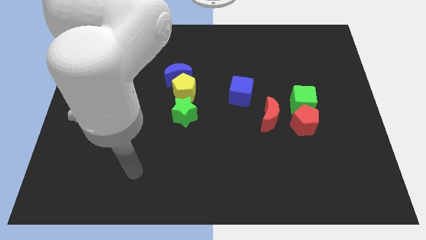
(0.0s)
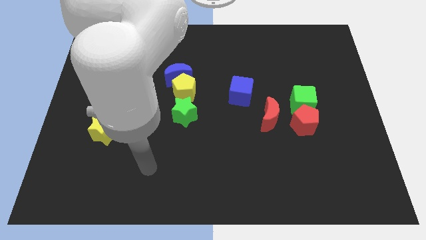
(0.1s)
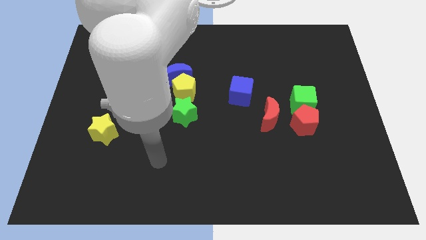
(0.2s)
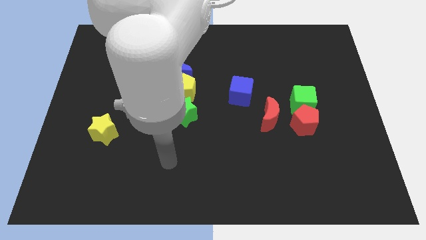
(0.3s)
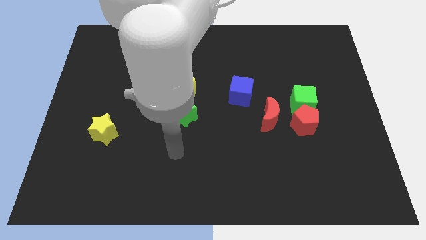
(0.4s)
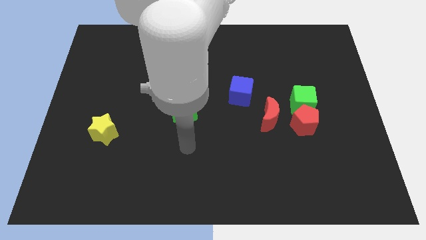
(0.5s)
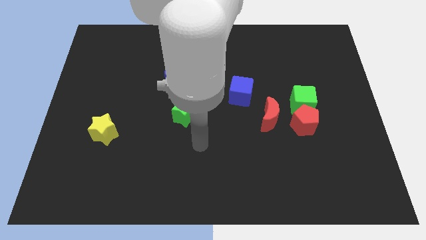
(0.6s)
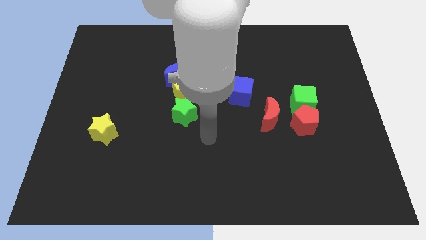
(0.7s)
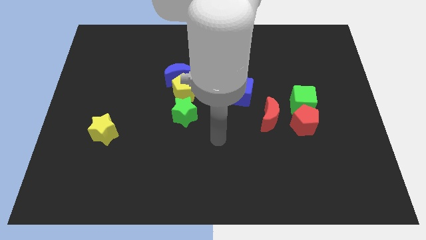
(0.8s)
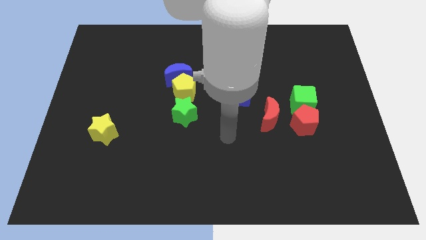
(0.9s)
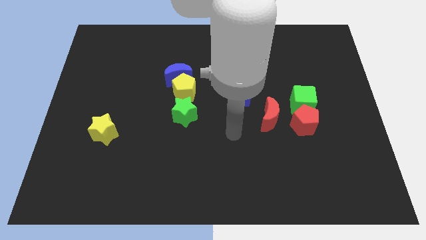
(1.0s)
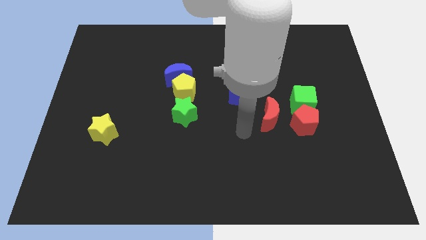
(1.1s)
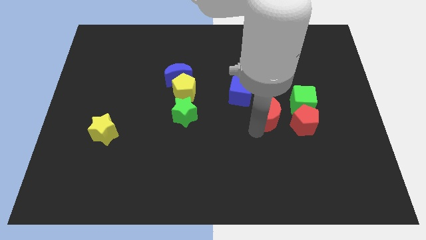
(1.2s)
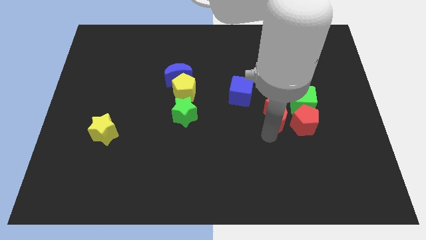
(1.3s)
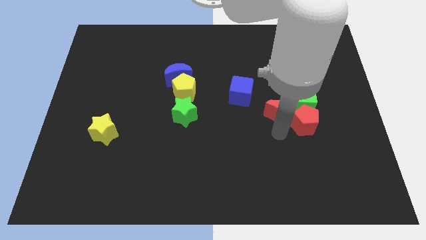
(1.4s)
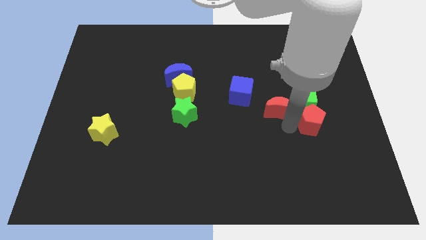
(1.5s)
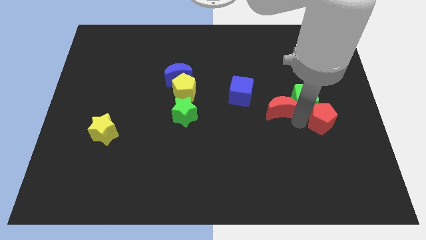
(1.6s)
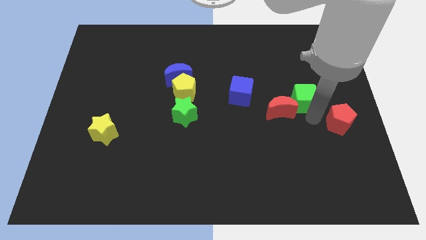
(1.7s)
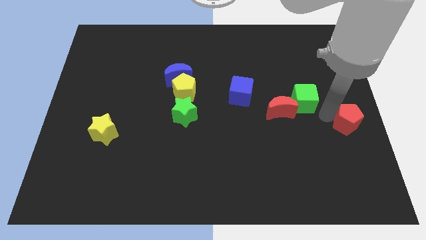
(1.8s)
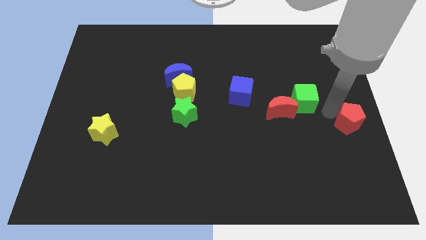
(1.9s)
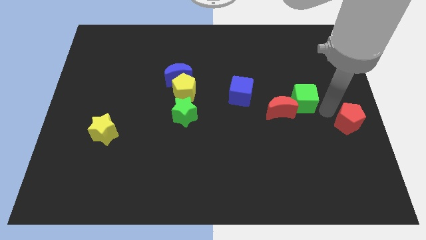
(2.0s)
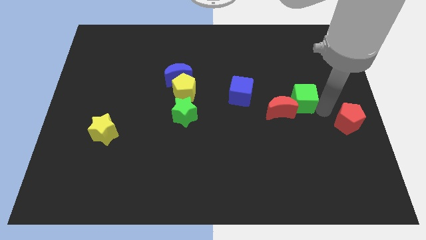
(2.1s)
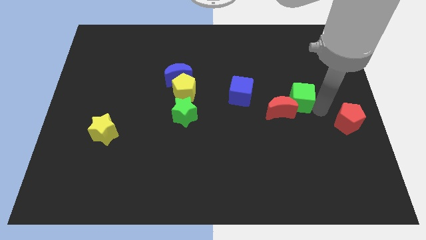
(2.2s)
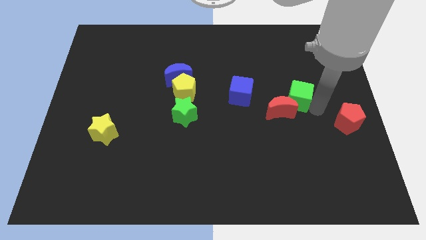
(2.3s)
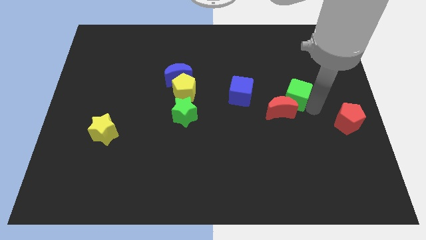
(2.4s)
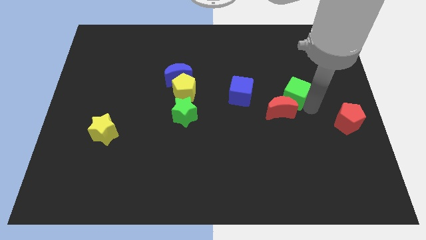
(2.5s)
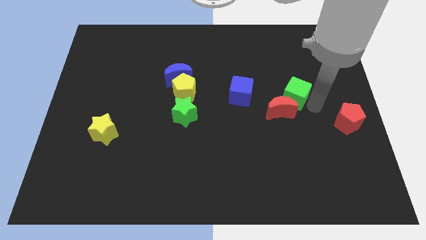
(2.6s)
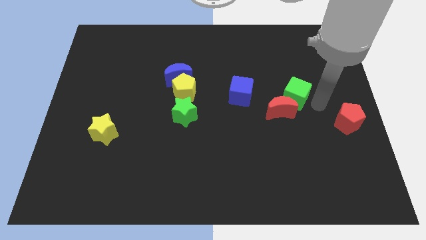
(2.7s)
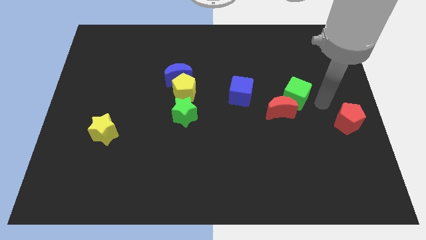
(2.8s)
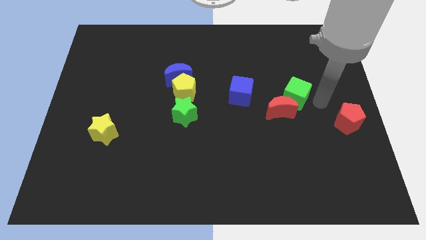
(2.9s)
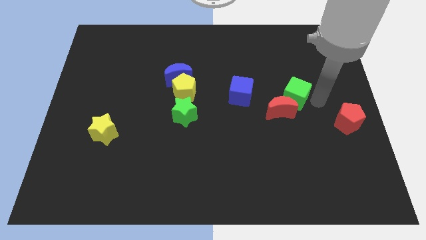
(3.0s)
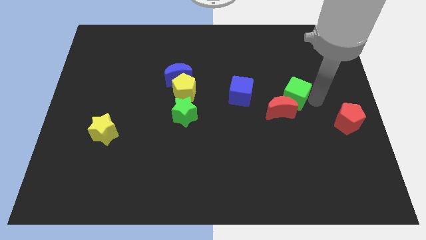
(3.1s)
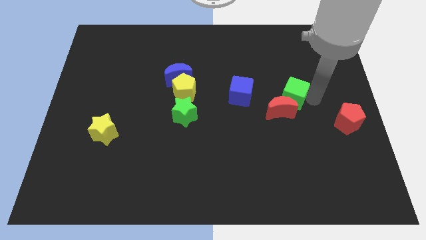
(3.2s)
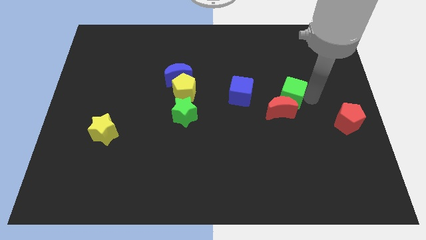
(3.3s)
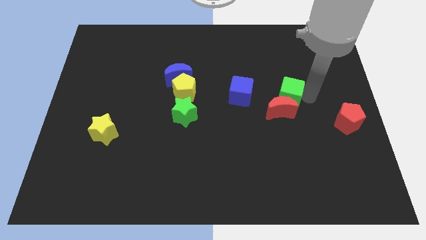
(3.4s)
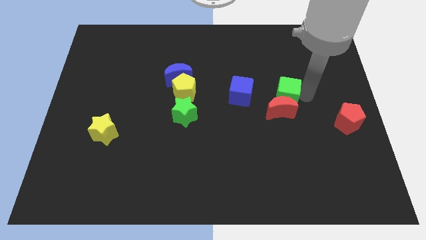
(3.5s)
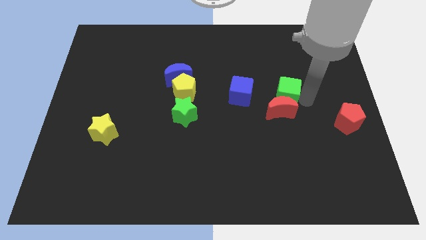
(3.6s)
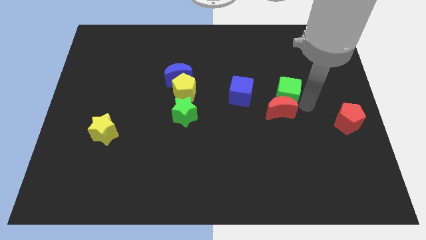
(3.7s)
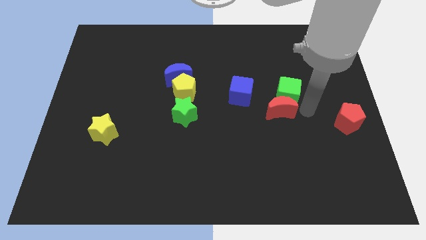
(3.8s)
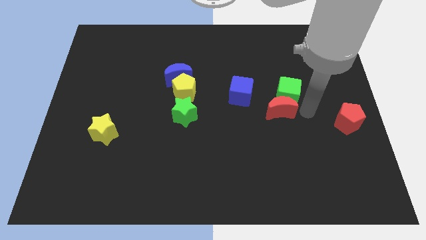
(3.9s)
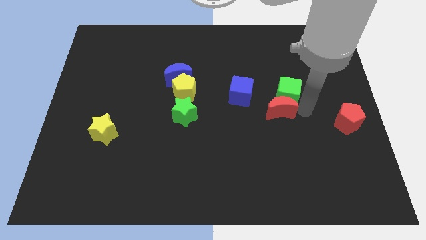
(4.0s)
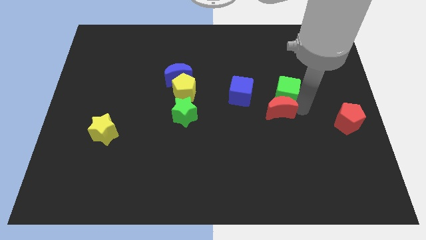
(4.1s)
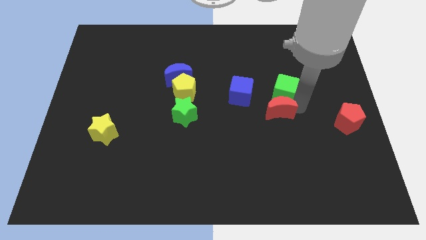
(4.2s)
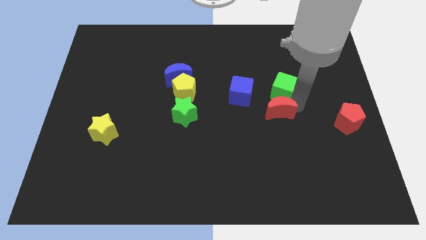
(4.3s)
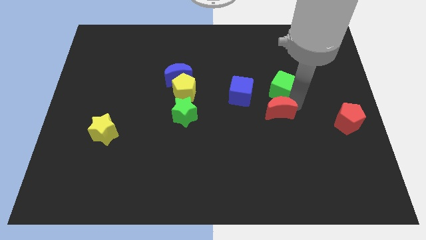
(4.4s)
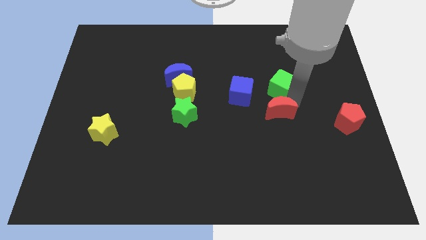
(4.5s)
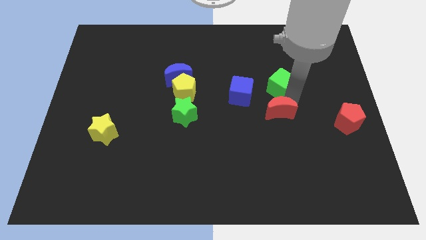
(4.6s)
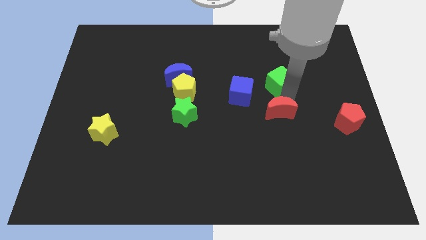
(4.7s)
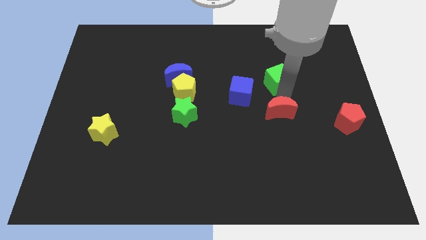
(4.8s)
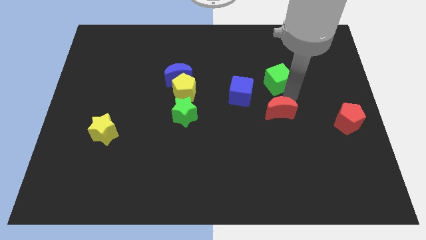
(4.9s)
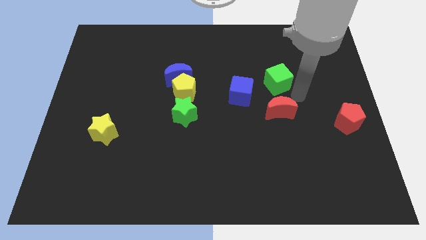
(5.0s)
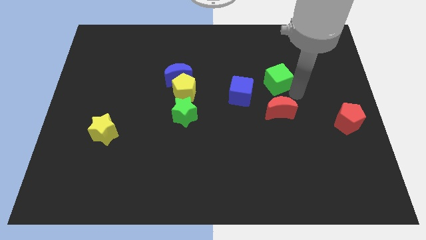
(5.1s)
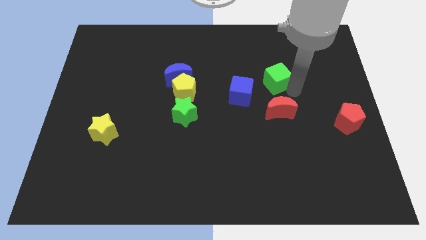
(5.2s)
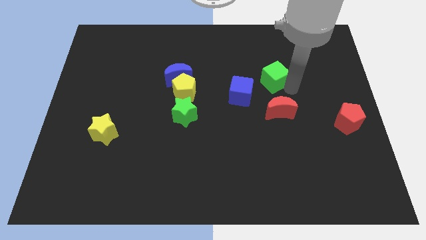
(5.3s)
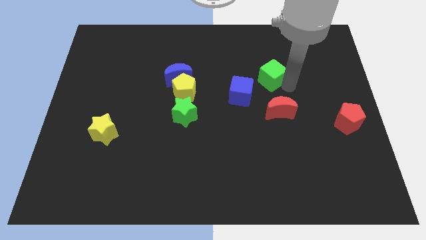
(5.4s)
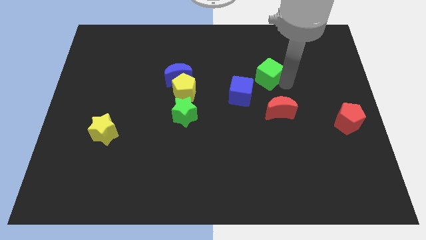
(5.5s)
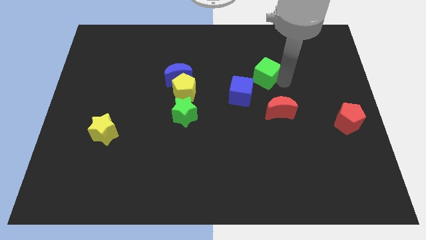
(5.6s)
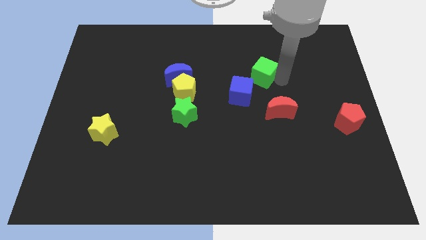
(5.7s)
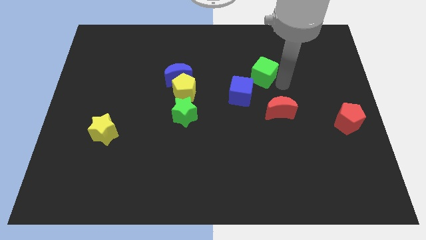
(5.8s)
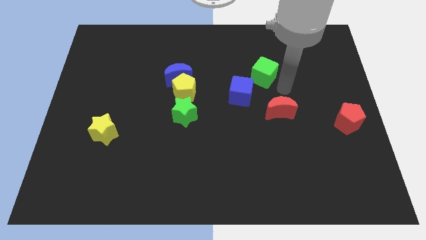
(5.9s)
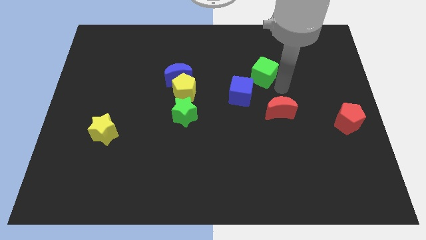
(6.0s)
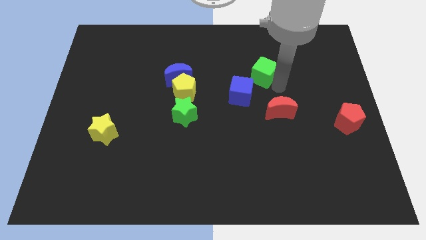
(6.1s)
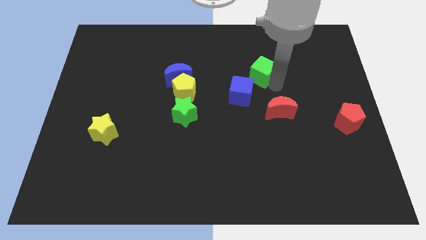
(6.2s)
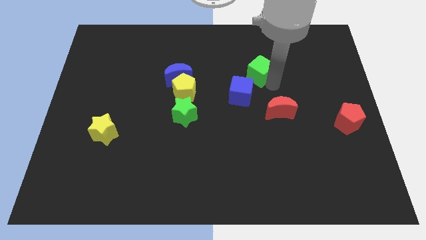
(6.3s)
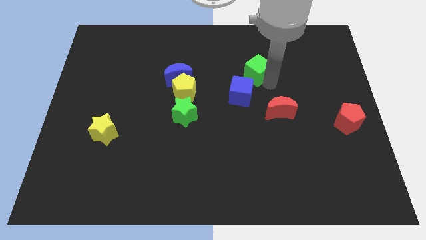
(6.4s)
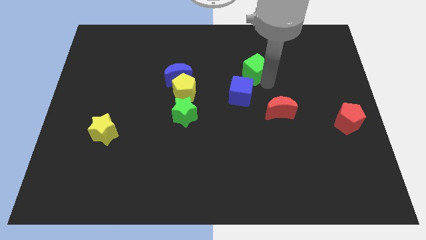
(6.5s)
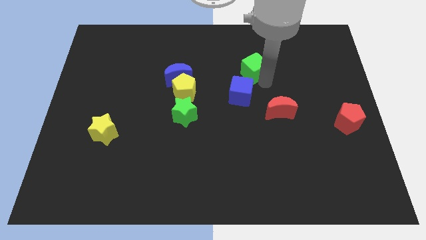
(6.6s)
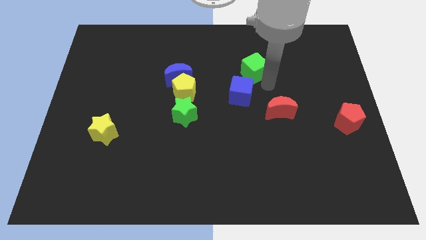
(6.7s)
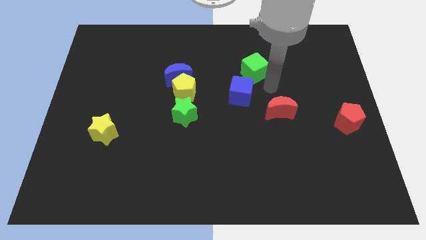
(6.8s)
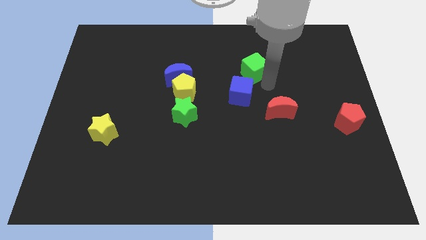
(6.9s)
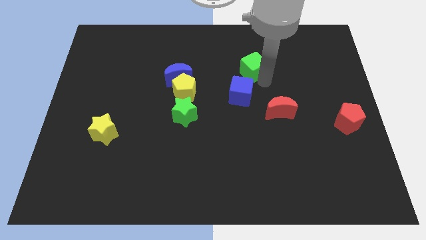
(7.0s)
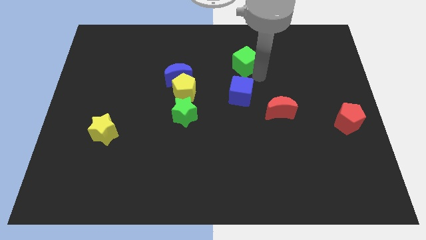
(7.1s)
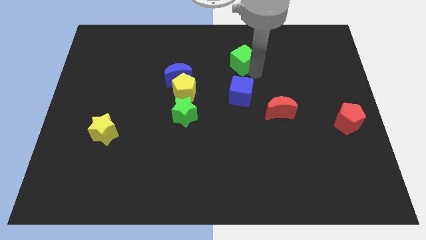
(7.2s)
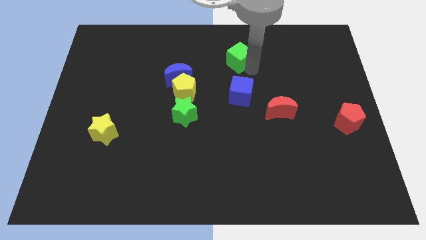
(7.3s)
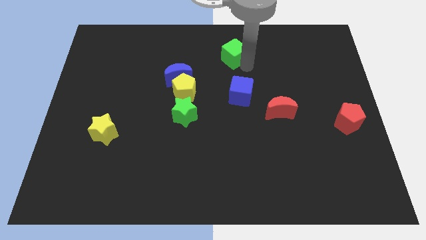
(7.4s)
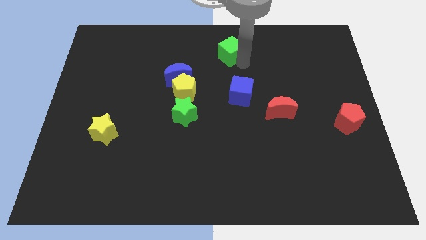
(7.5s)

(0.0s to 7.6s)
move the green cube to the top
